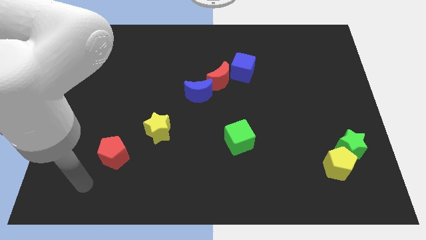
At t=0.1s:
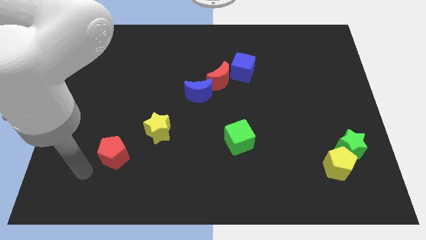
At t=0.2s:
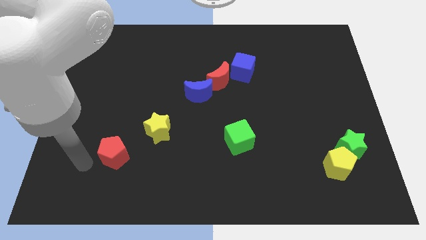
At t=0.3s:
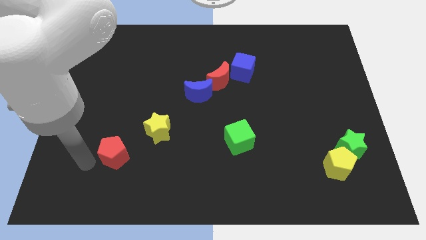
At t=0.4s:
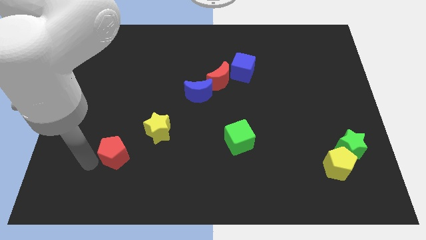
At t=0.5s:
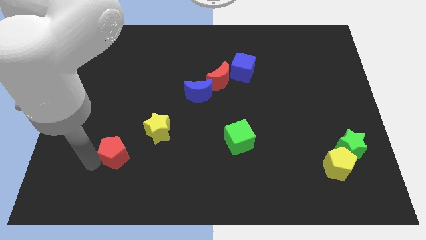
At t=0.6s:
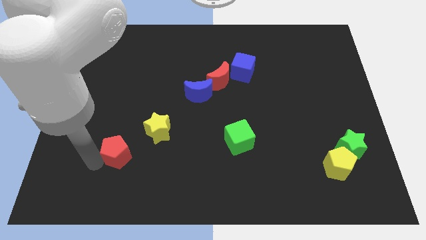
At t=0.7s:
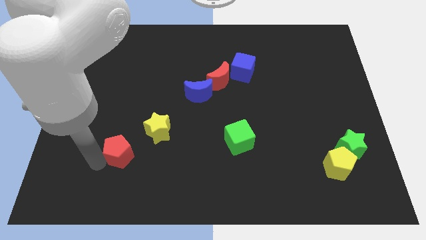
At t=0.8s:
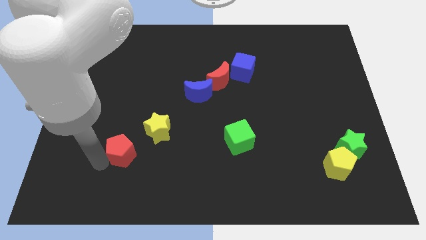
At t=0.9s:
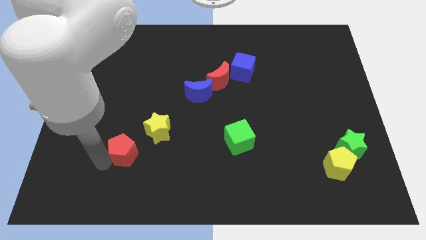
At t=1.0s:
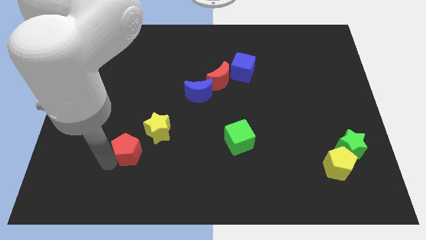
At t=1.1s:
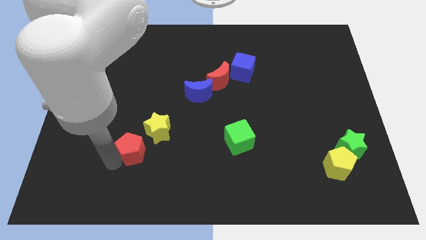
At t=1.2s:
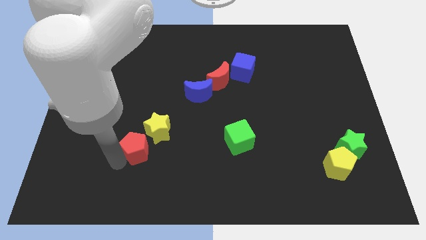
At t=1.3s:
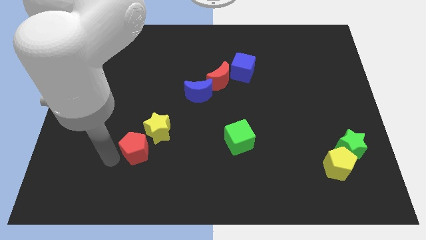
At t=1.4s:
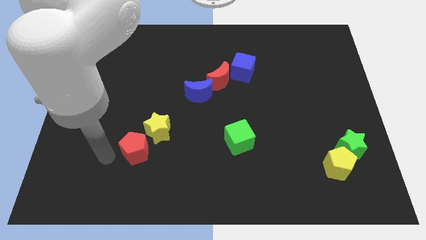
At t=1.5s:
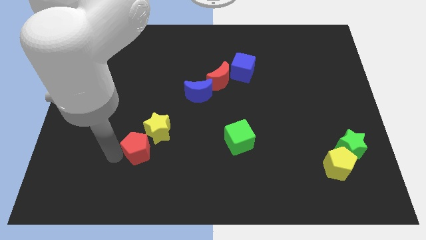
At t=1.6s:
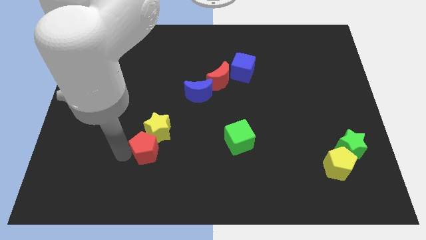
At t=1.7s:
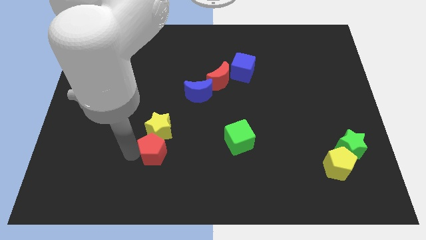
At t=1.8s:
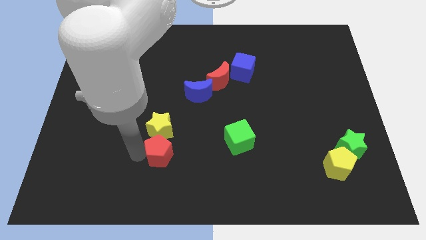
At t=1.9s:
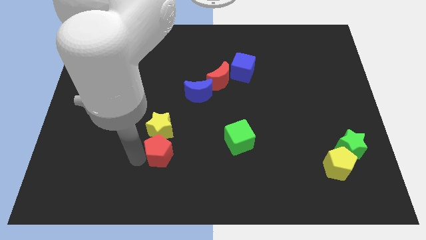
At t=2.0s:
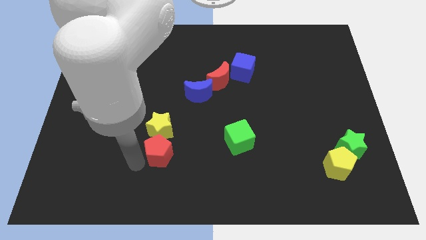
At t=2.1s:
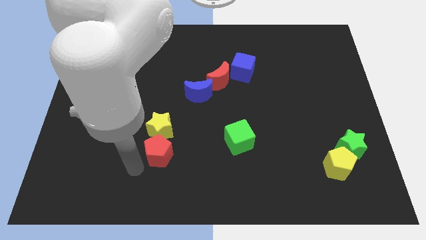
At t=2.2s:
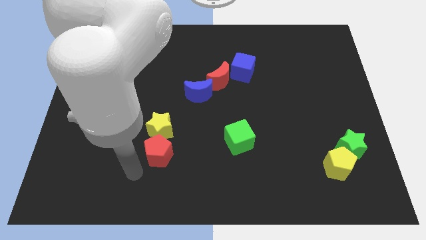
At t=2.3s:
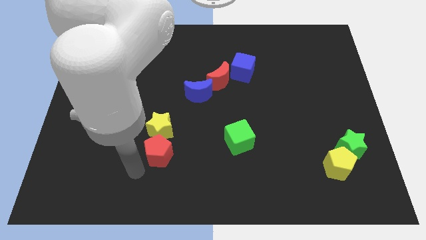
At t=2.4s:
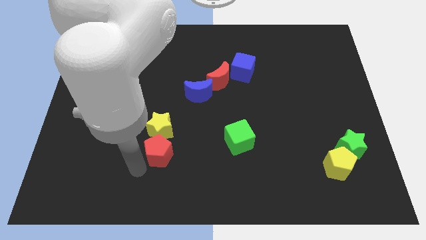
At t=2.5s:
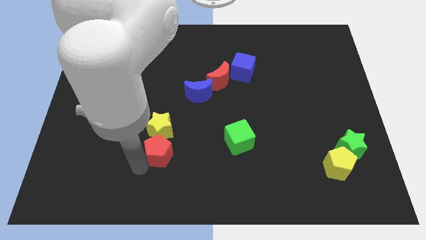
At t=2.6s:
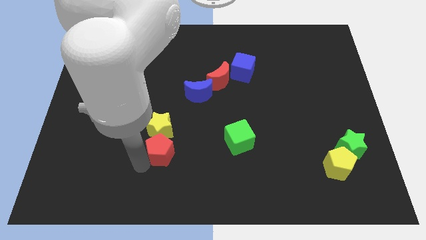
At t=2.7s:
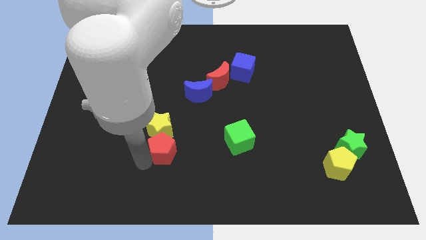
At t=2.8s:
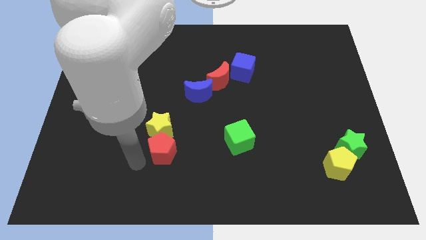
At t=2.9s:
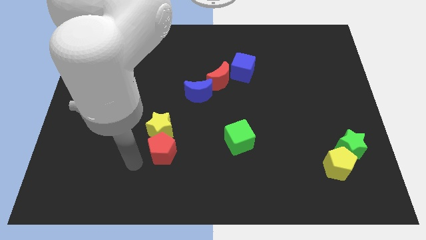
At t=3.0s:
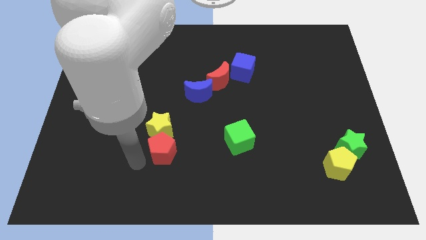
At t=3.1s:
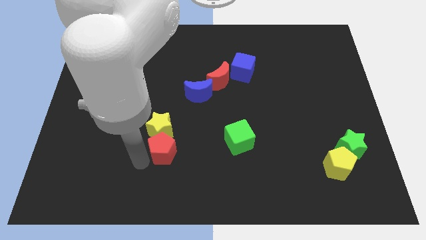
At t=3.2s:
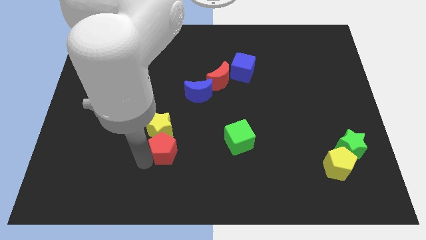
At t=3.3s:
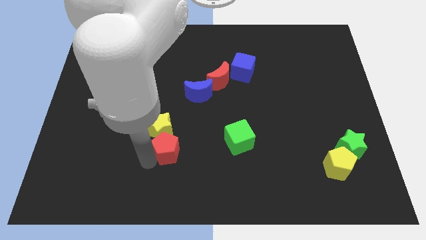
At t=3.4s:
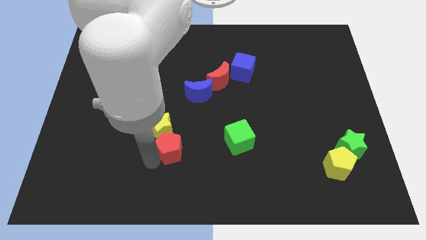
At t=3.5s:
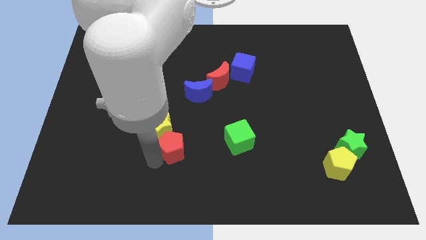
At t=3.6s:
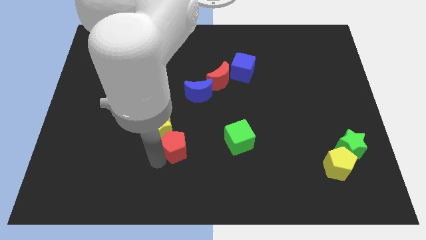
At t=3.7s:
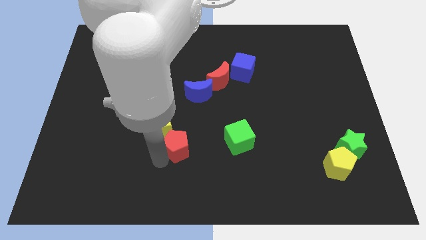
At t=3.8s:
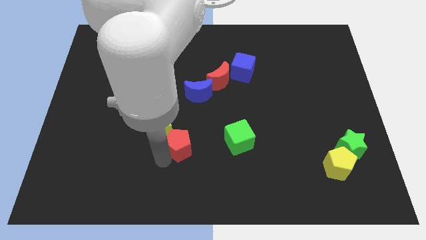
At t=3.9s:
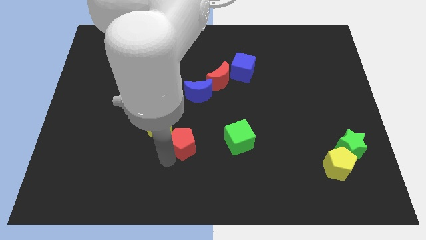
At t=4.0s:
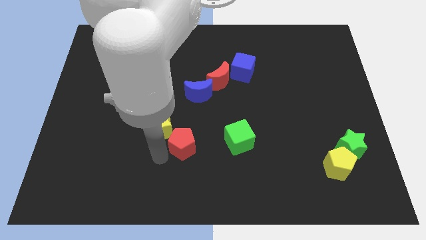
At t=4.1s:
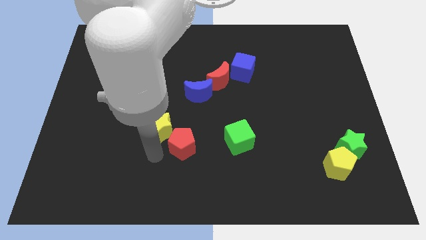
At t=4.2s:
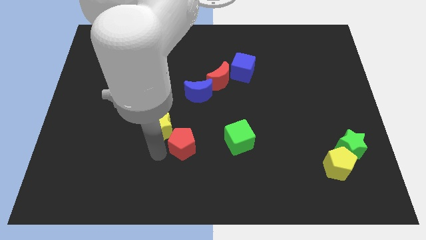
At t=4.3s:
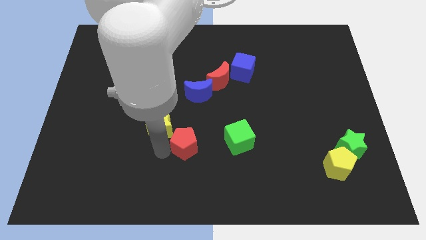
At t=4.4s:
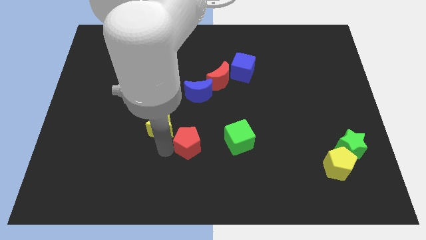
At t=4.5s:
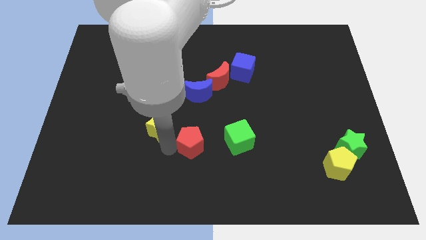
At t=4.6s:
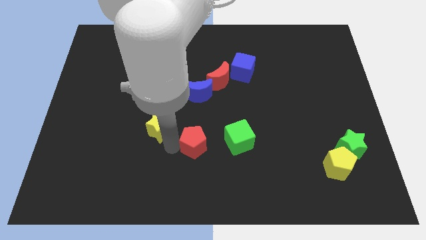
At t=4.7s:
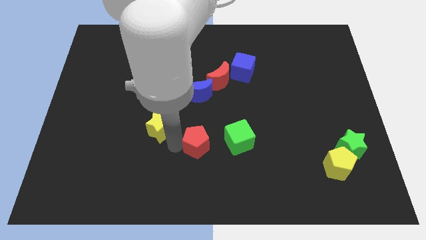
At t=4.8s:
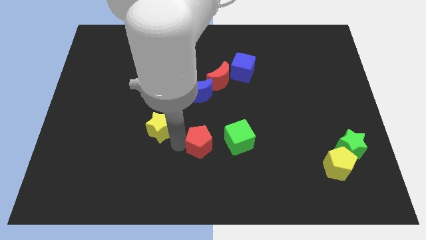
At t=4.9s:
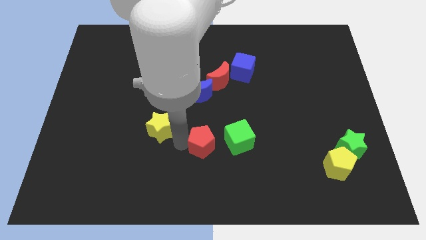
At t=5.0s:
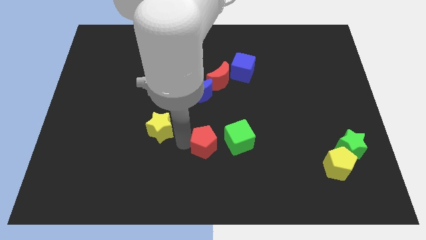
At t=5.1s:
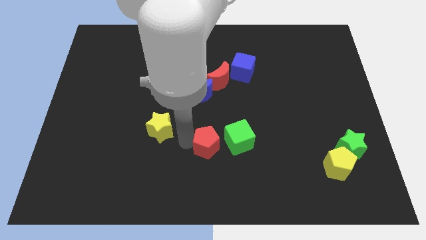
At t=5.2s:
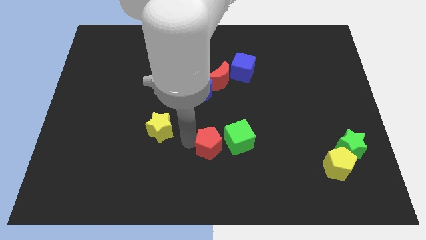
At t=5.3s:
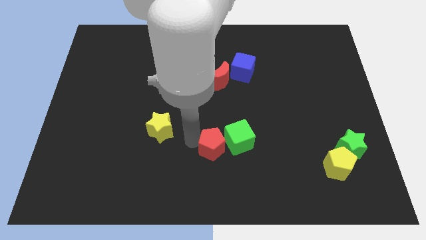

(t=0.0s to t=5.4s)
put the red pentagon close to the green cube

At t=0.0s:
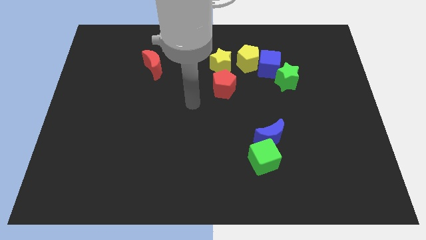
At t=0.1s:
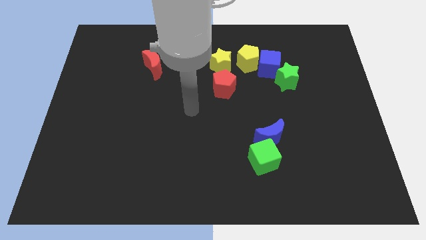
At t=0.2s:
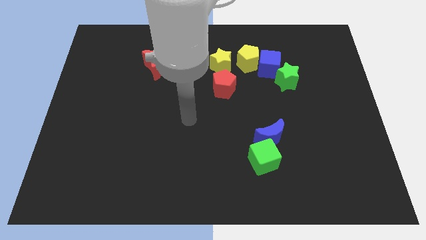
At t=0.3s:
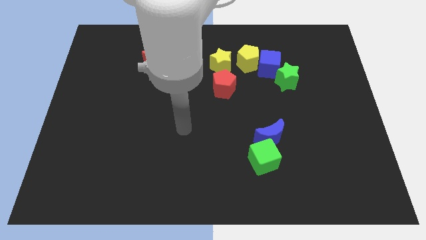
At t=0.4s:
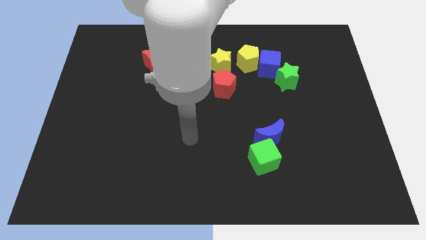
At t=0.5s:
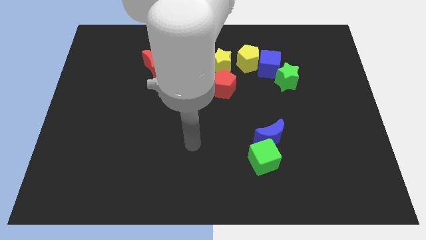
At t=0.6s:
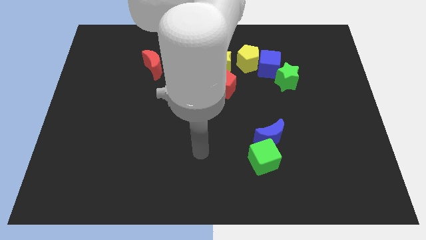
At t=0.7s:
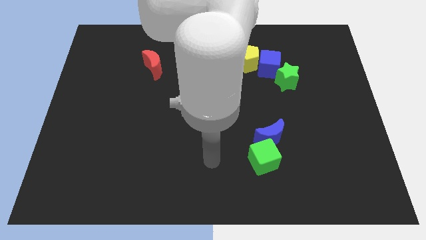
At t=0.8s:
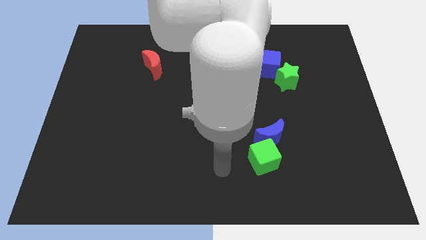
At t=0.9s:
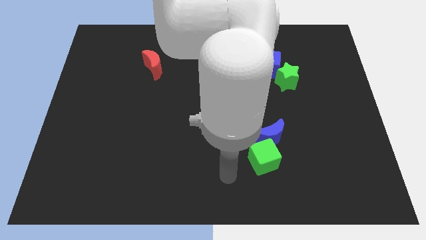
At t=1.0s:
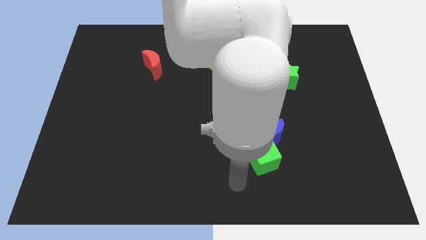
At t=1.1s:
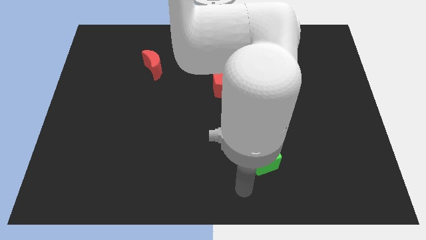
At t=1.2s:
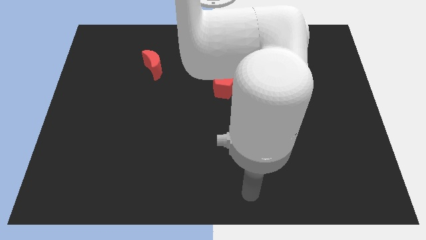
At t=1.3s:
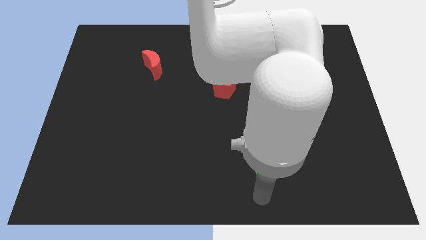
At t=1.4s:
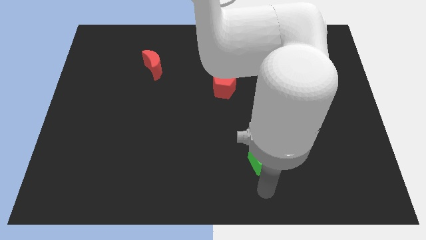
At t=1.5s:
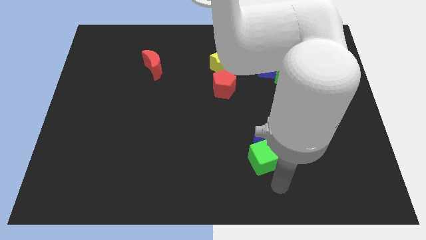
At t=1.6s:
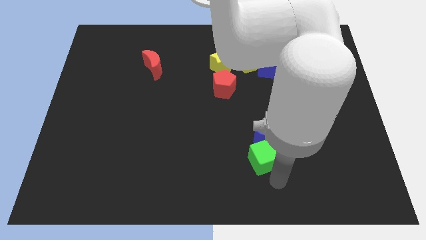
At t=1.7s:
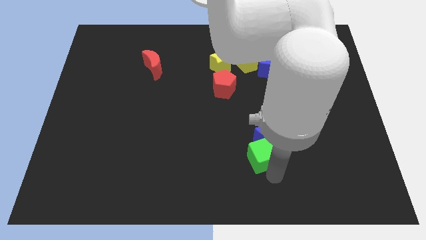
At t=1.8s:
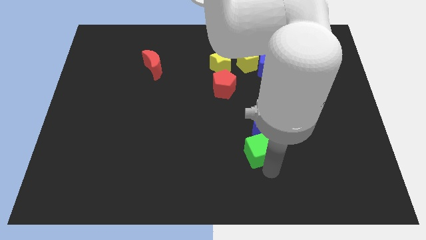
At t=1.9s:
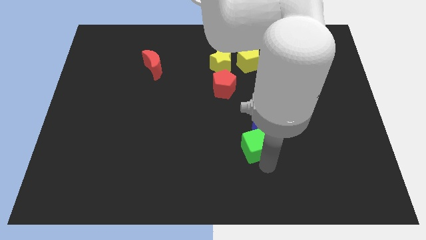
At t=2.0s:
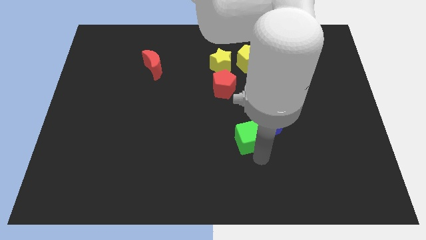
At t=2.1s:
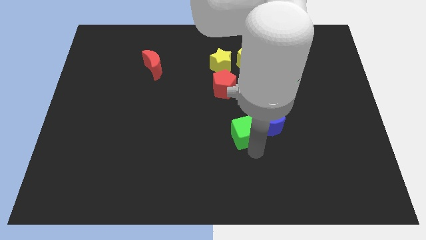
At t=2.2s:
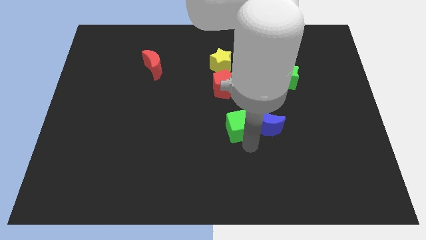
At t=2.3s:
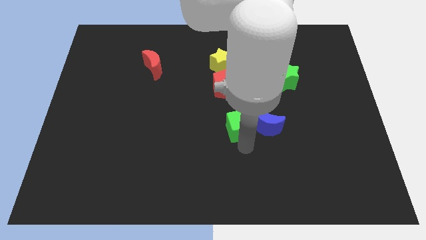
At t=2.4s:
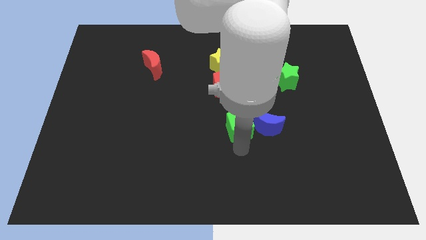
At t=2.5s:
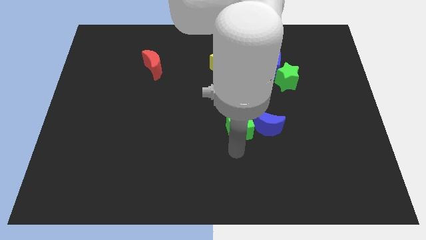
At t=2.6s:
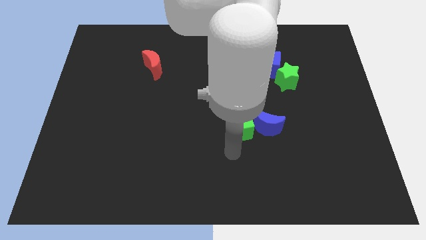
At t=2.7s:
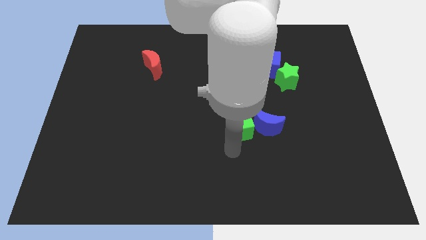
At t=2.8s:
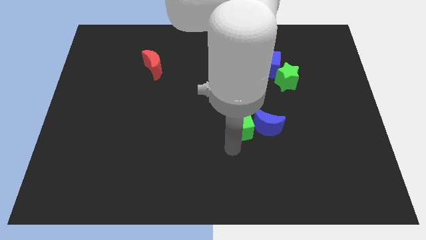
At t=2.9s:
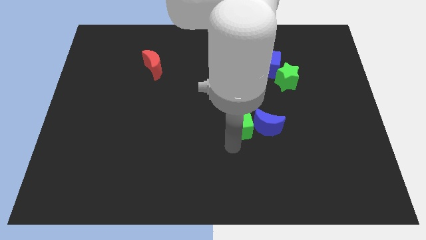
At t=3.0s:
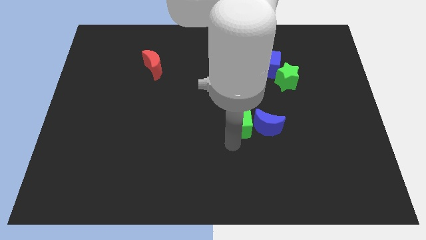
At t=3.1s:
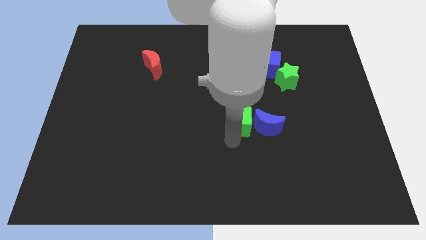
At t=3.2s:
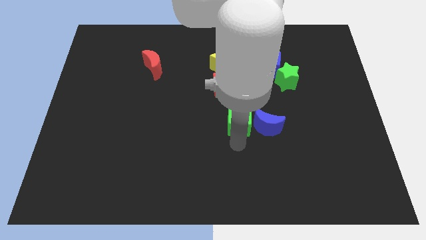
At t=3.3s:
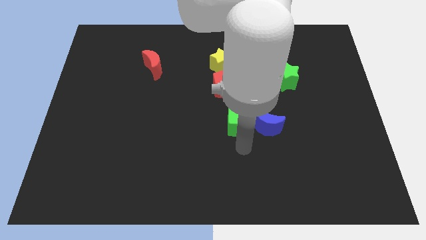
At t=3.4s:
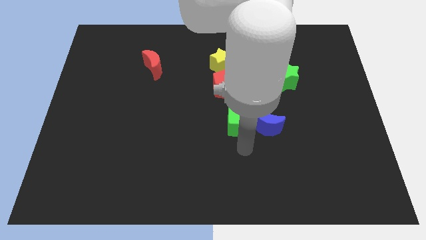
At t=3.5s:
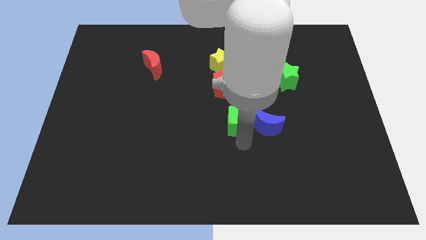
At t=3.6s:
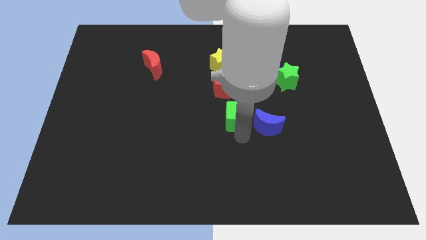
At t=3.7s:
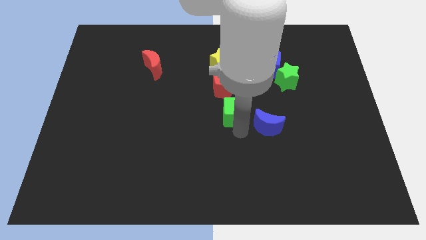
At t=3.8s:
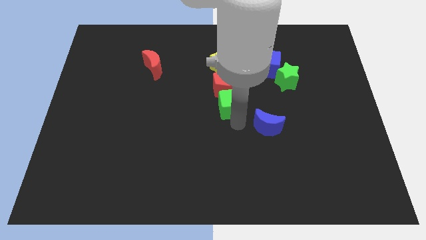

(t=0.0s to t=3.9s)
move the green cube towards the red pentagon
